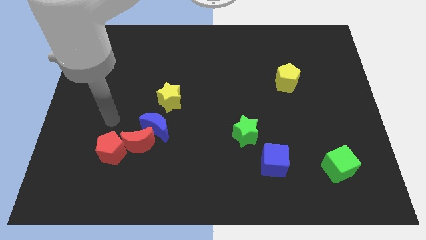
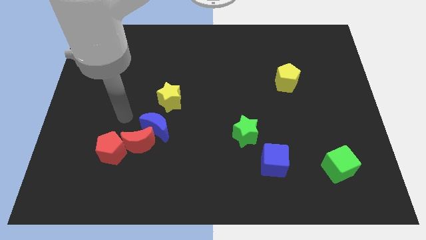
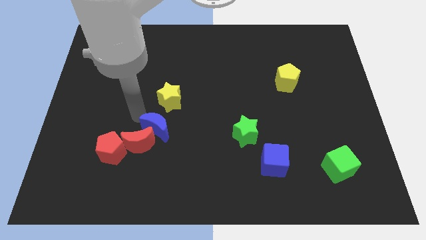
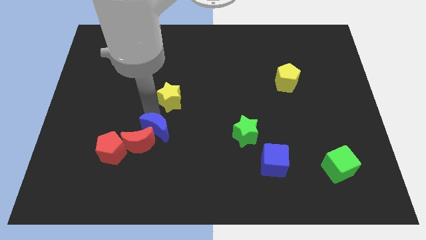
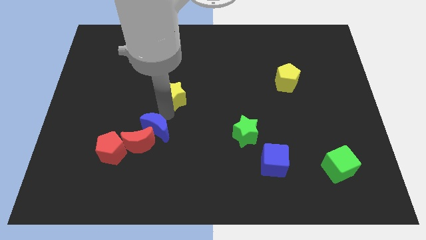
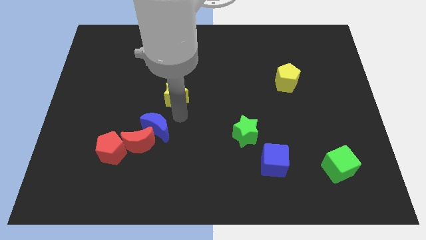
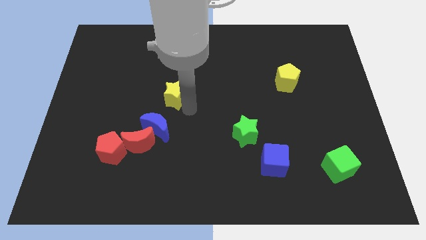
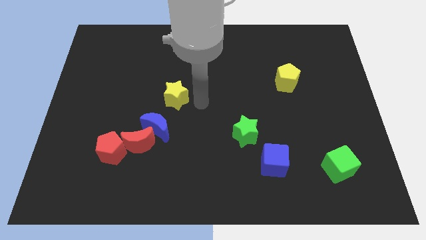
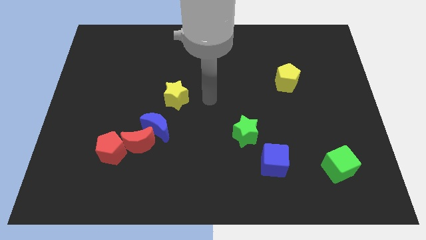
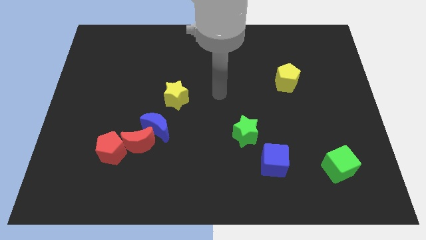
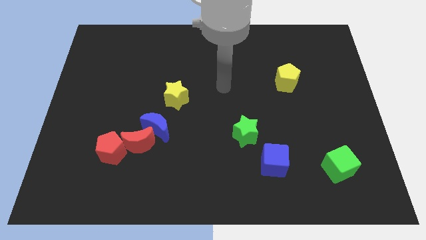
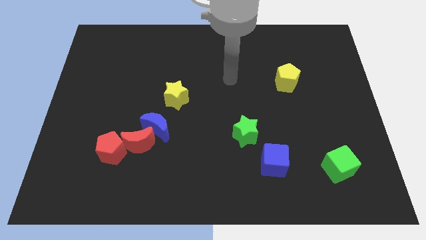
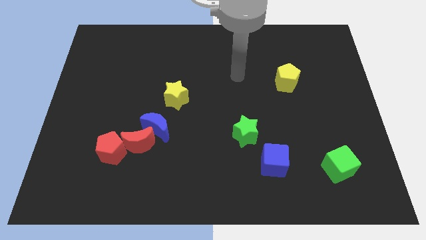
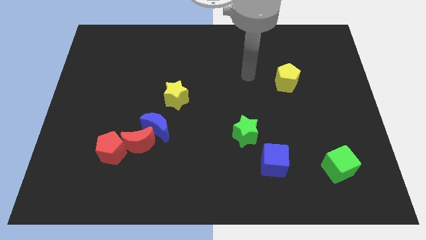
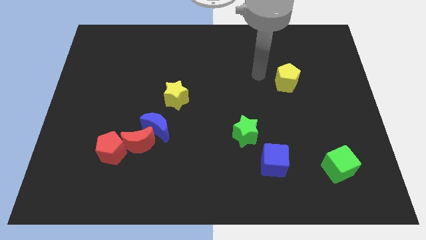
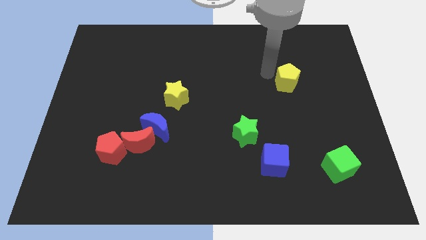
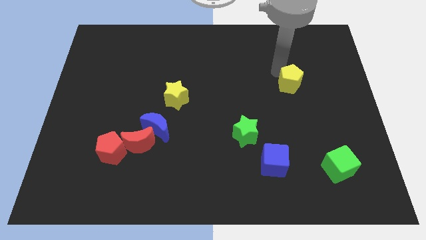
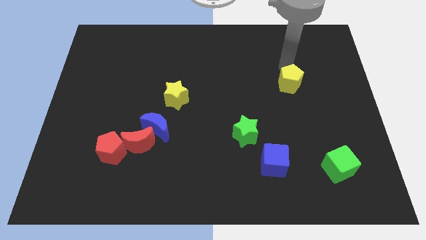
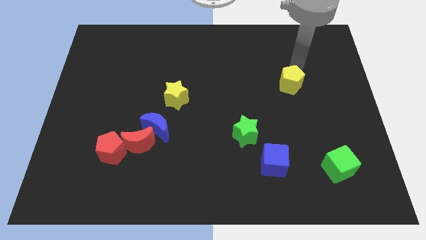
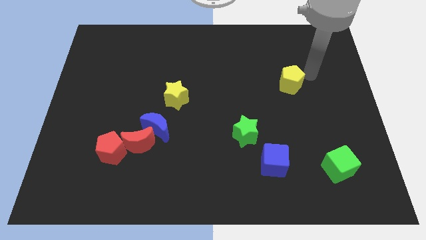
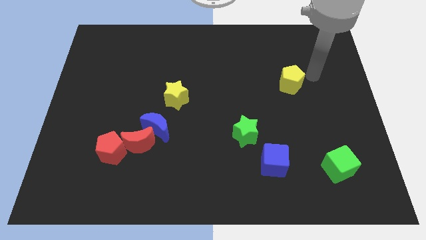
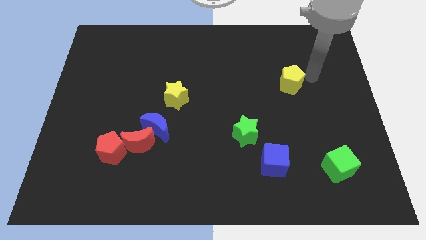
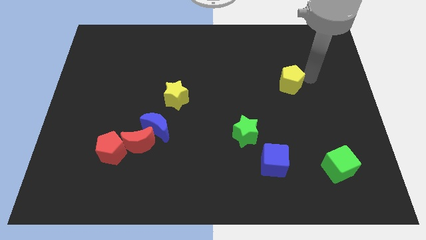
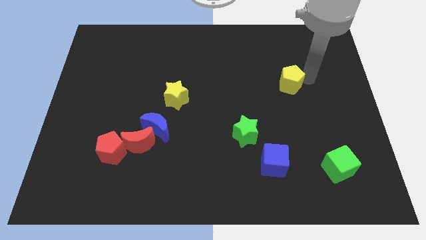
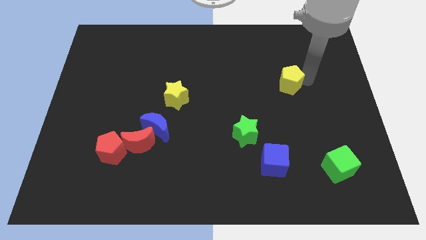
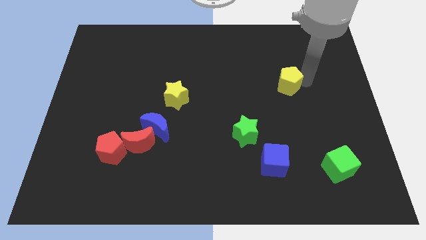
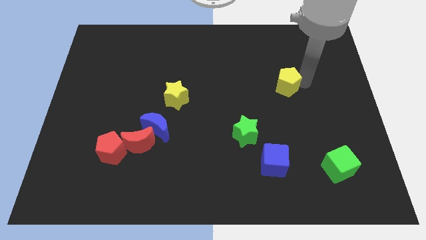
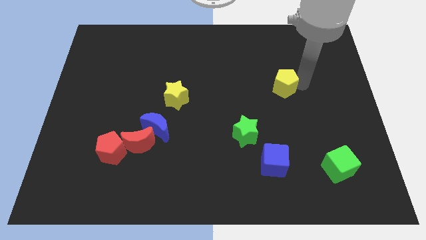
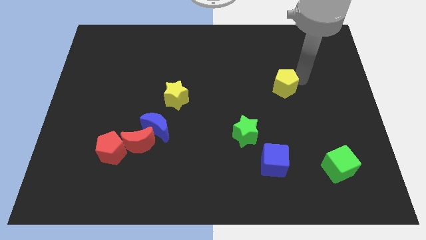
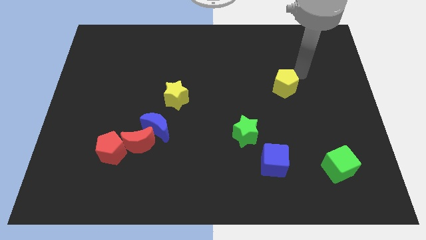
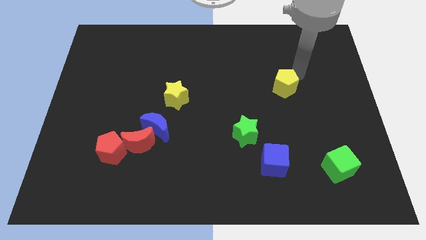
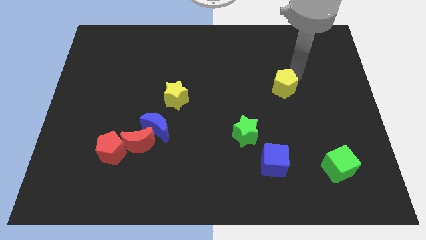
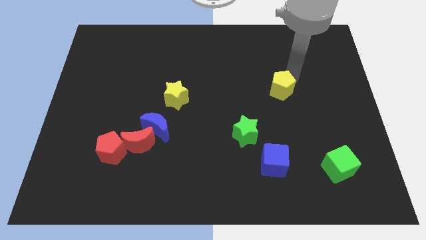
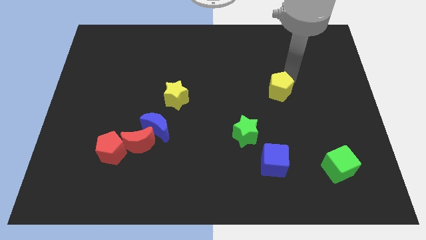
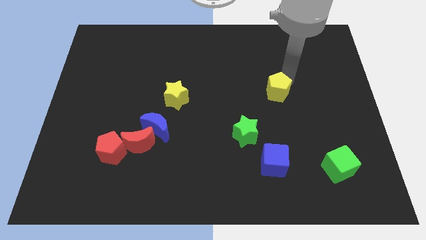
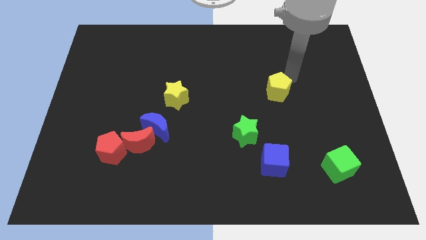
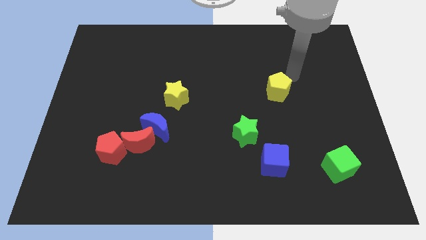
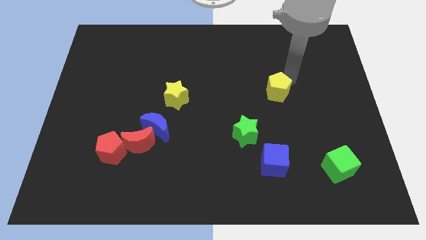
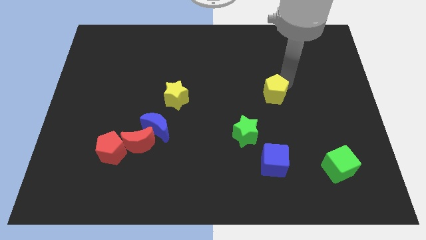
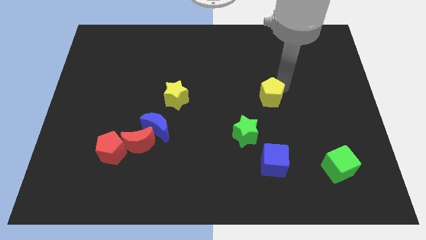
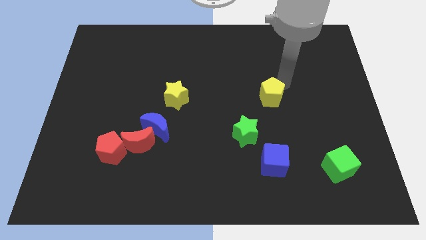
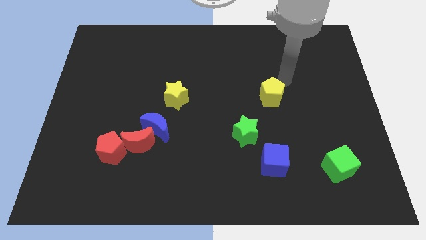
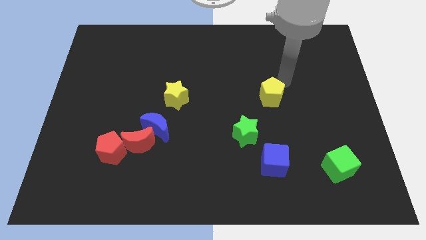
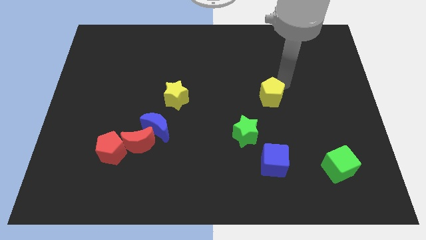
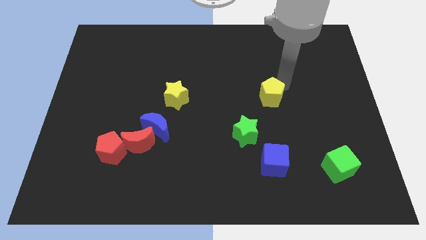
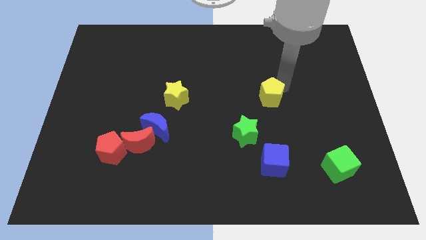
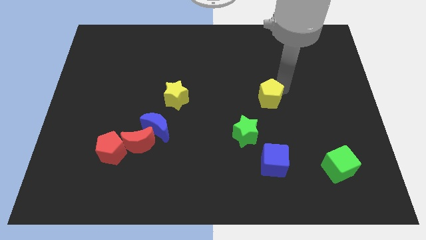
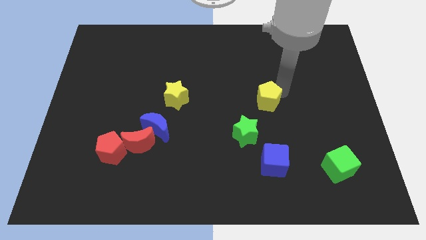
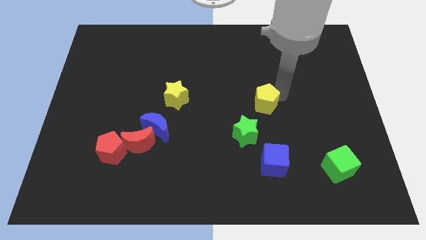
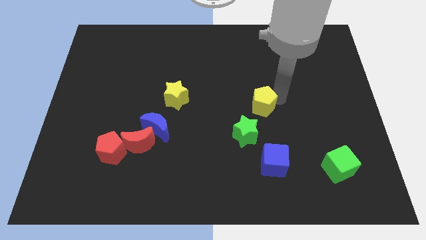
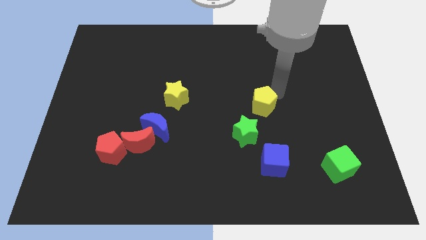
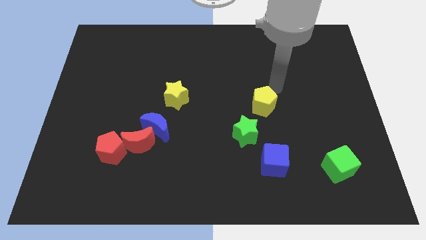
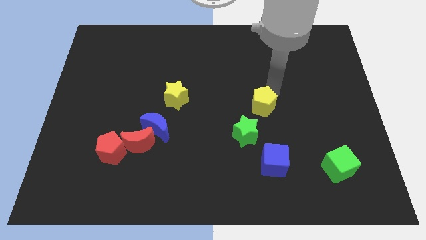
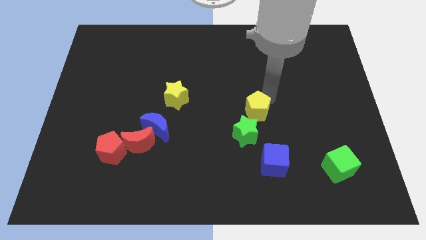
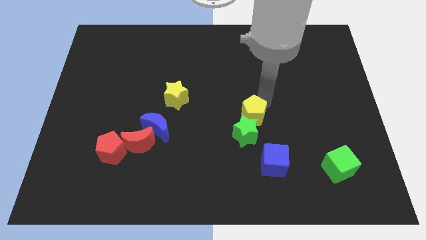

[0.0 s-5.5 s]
put the yellow pentagon close to the green star

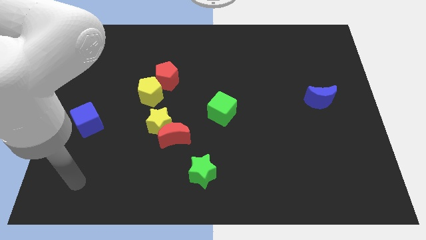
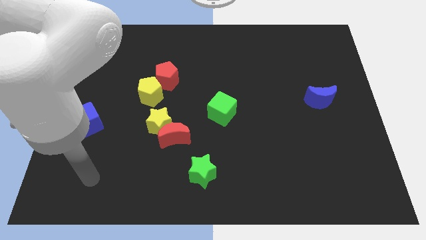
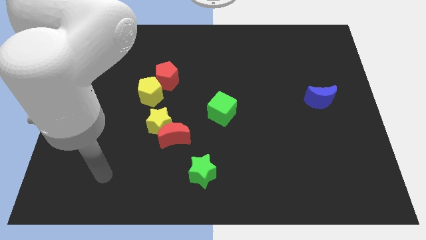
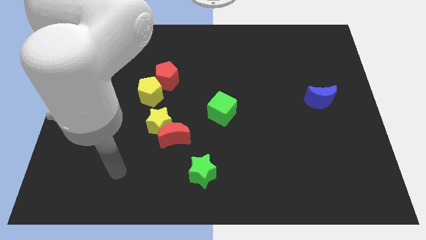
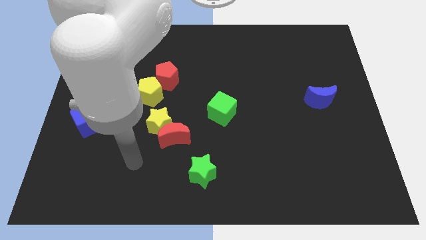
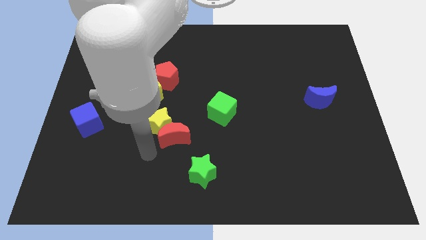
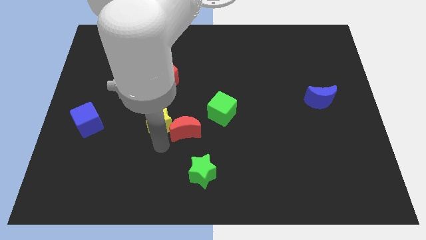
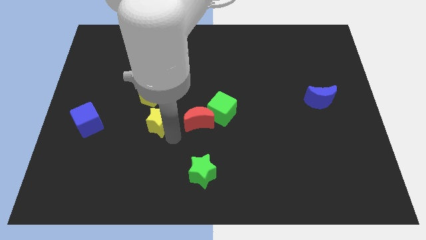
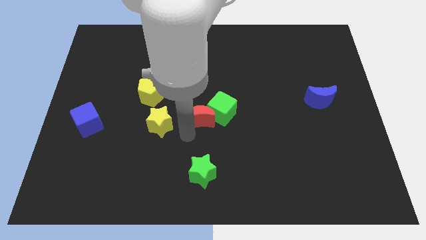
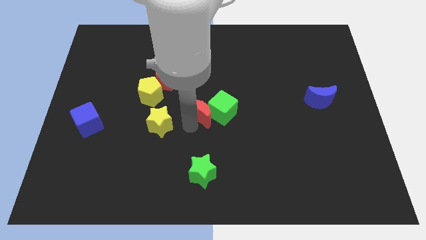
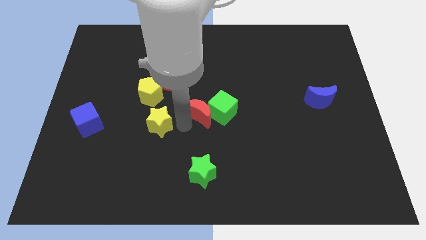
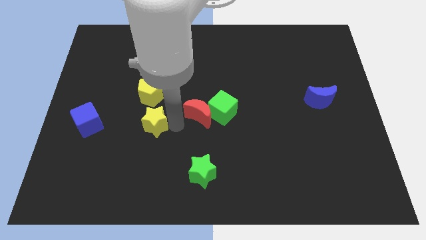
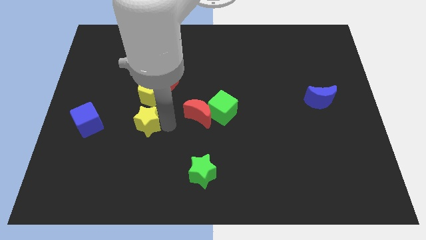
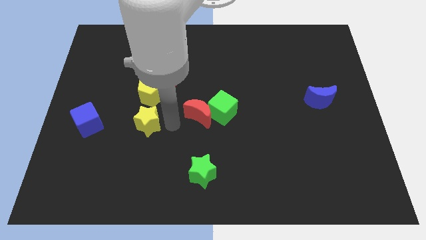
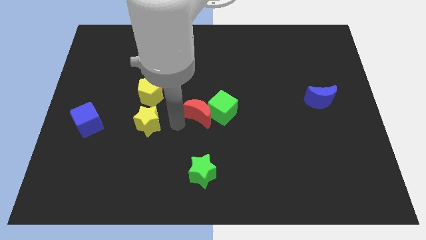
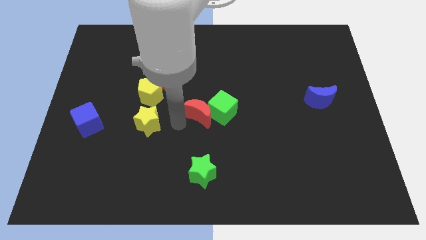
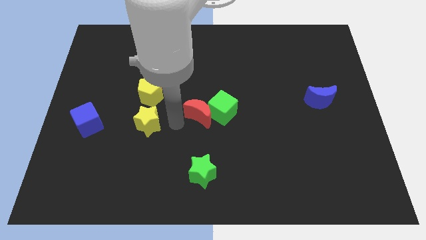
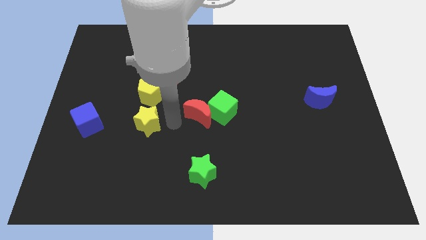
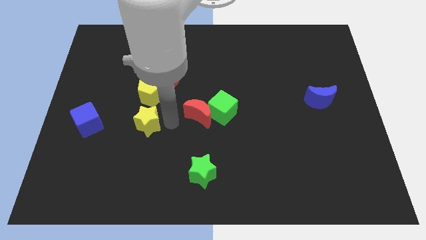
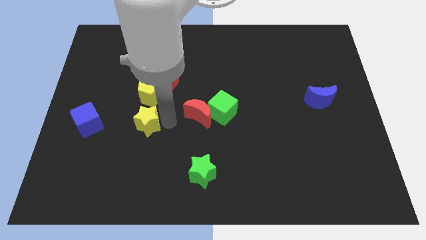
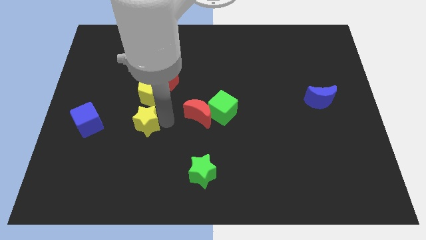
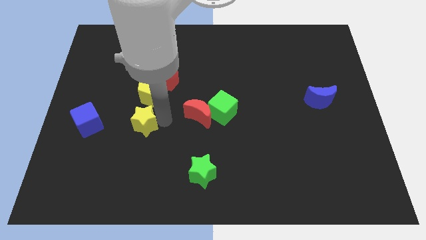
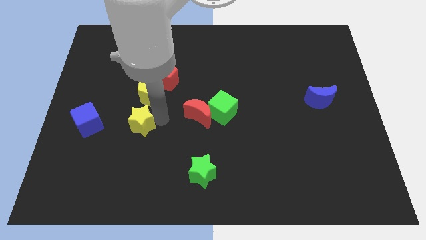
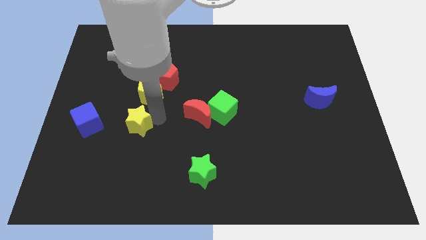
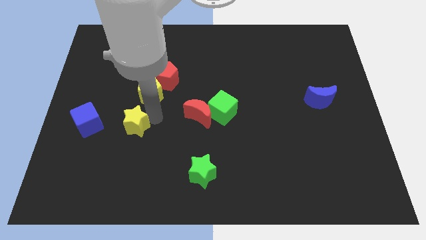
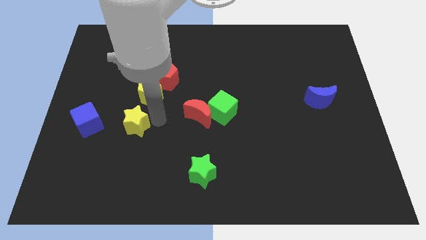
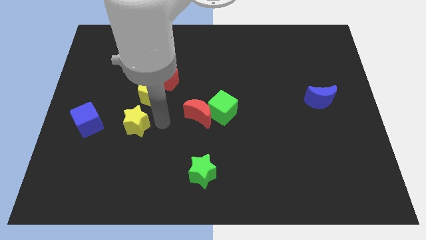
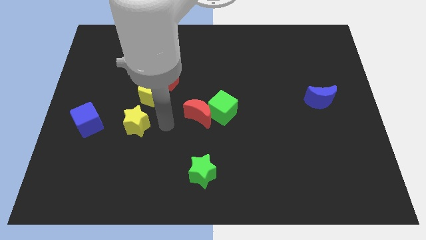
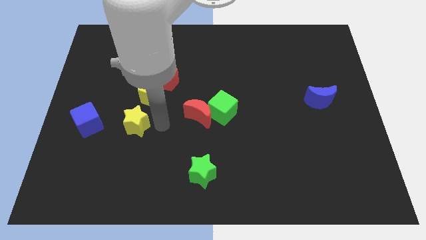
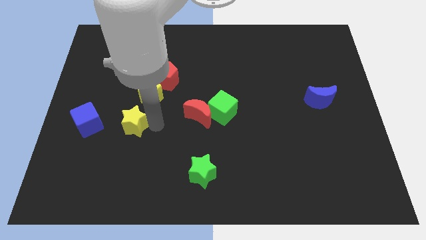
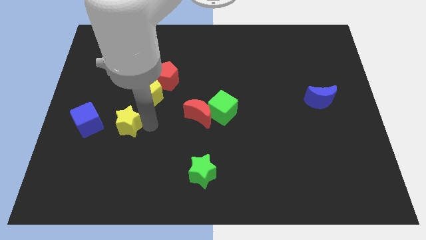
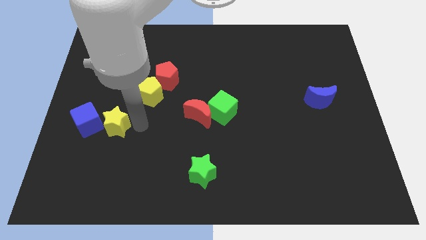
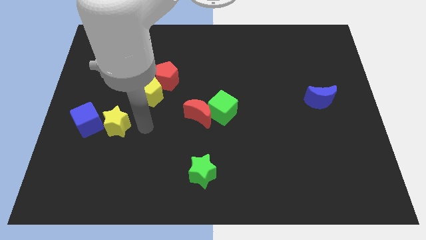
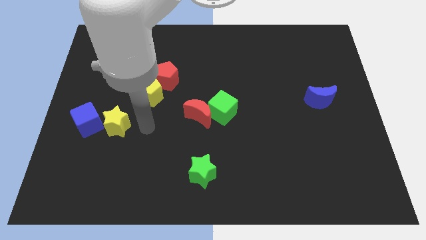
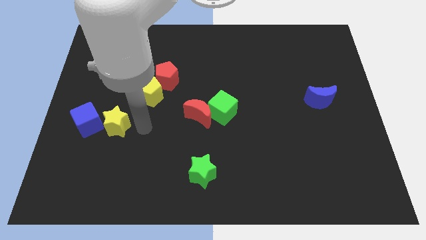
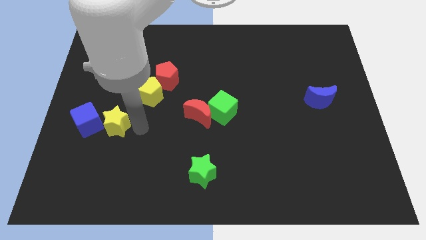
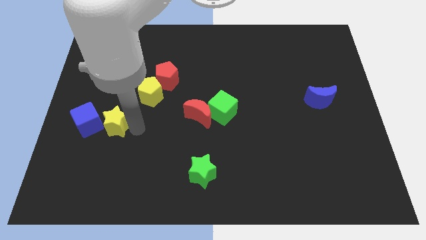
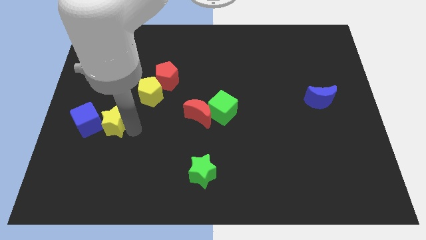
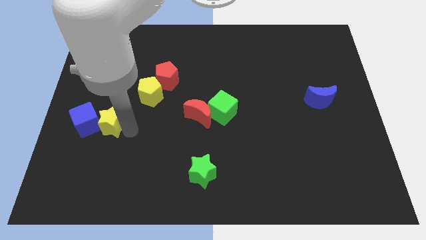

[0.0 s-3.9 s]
put the yellow star towards the blue cube
